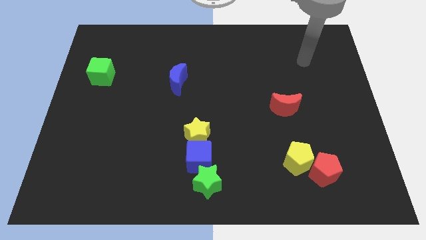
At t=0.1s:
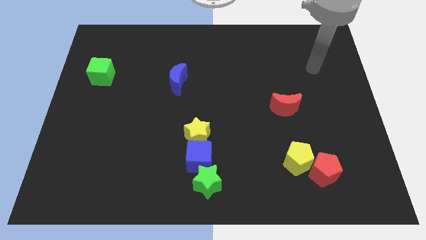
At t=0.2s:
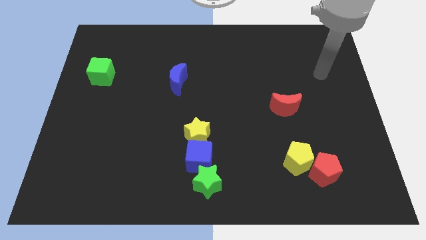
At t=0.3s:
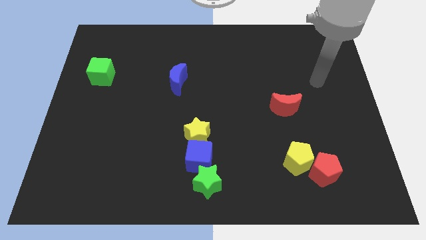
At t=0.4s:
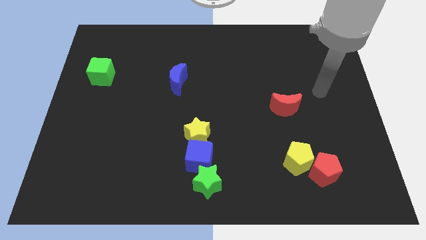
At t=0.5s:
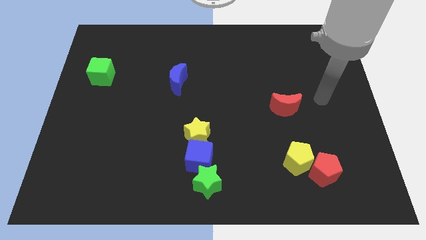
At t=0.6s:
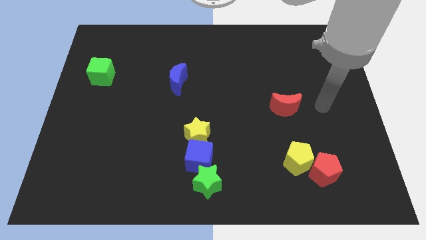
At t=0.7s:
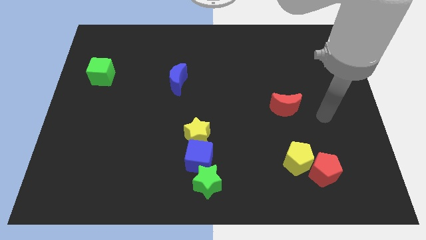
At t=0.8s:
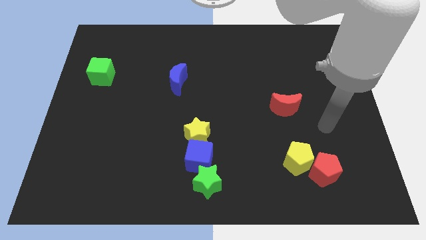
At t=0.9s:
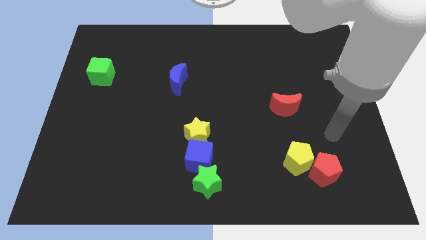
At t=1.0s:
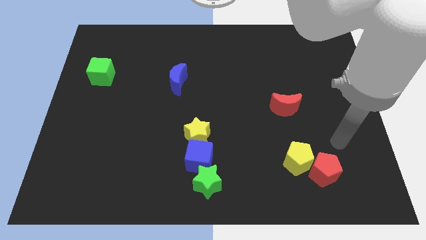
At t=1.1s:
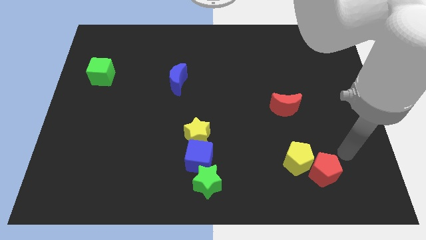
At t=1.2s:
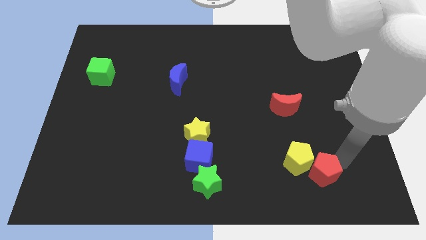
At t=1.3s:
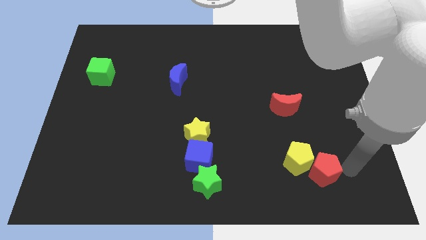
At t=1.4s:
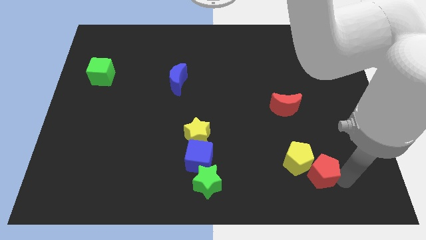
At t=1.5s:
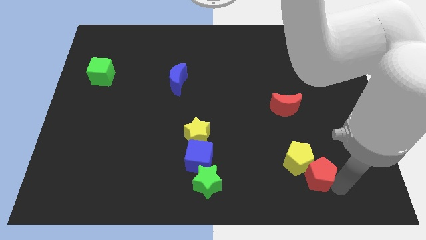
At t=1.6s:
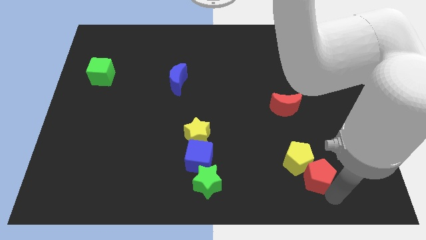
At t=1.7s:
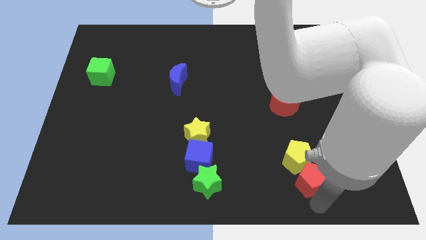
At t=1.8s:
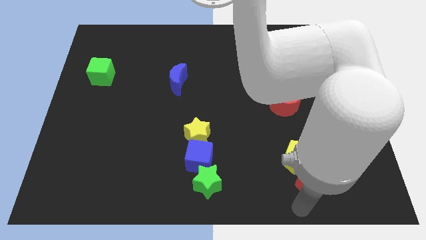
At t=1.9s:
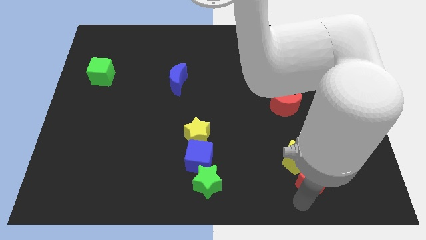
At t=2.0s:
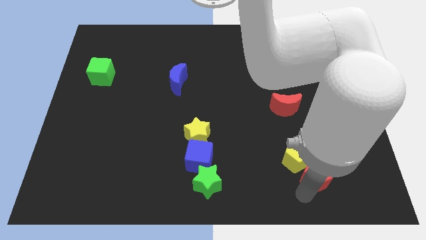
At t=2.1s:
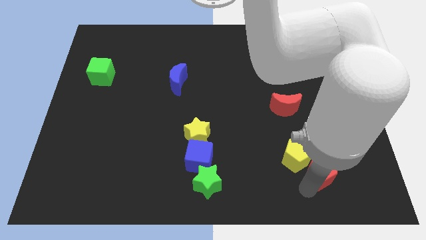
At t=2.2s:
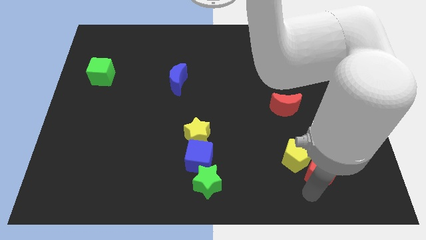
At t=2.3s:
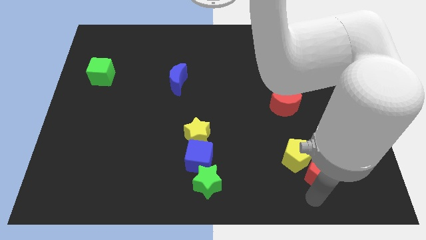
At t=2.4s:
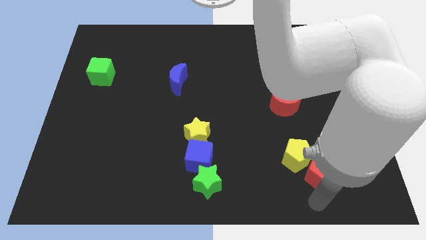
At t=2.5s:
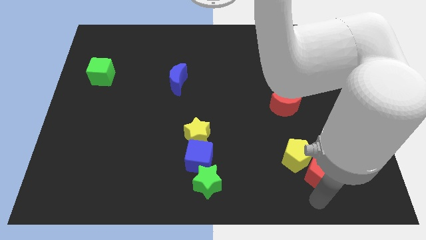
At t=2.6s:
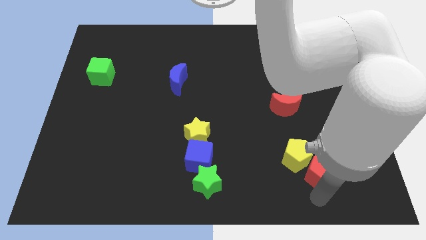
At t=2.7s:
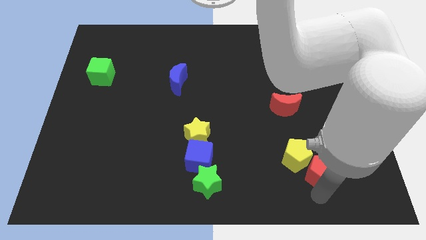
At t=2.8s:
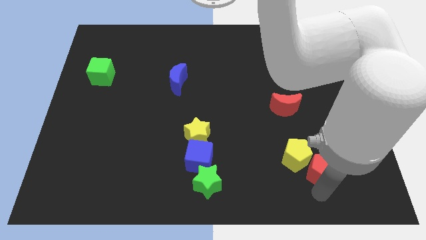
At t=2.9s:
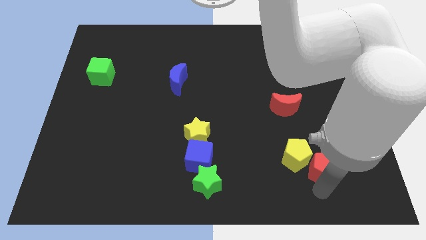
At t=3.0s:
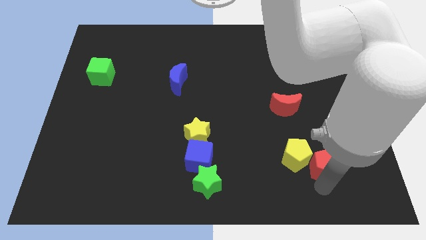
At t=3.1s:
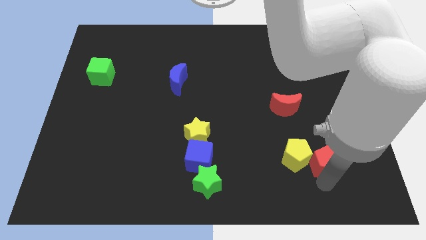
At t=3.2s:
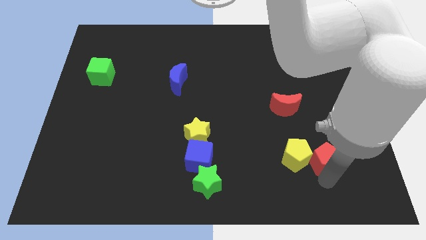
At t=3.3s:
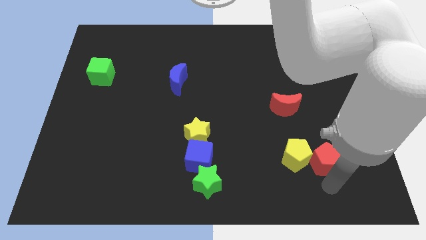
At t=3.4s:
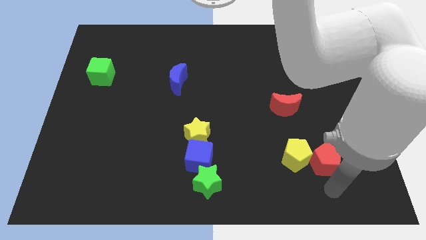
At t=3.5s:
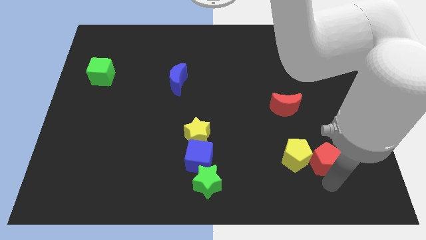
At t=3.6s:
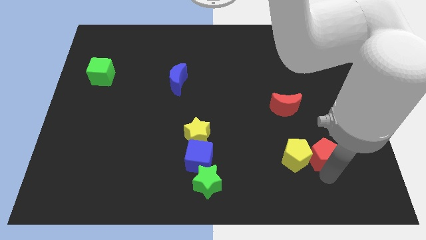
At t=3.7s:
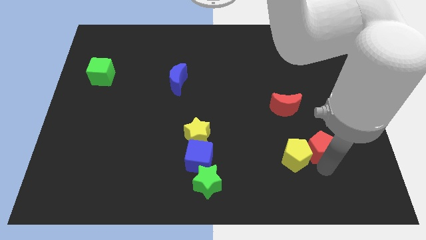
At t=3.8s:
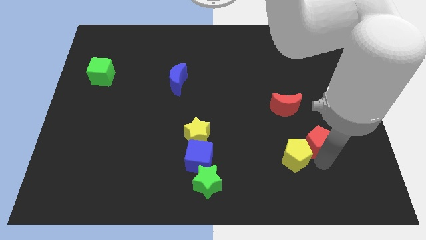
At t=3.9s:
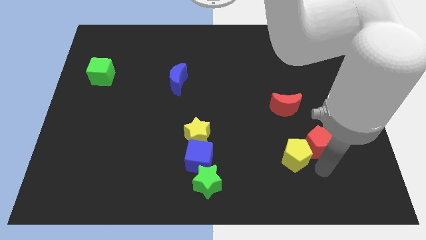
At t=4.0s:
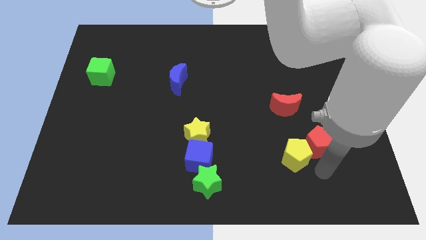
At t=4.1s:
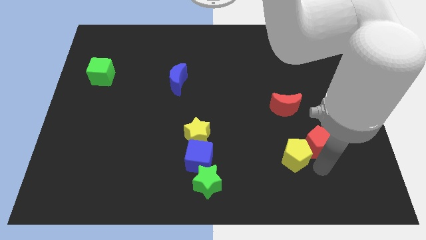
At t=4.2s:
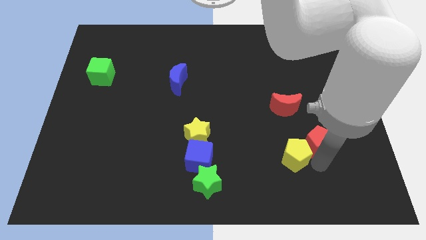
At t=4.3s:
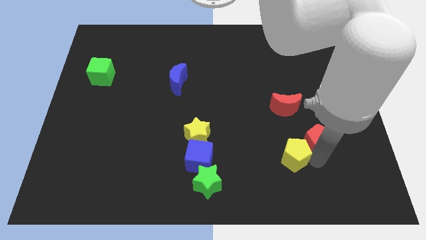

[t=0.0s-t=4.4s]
move the red pentagon a little bit up

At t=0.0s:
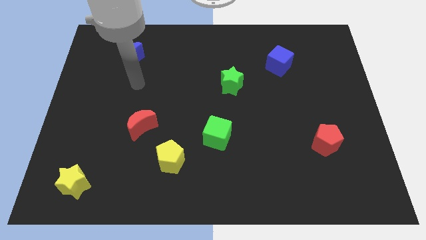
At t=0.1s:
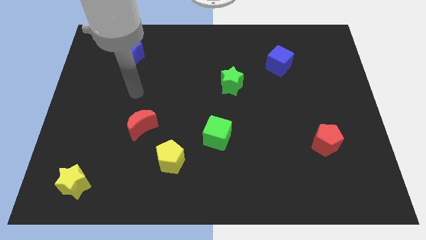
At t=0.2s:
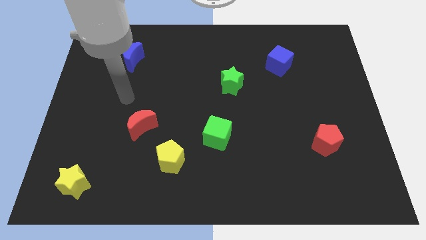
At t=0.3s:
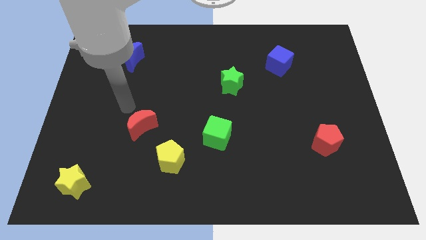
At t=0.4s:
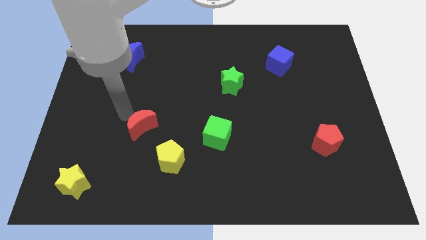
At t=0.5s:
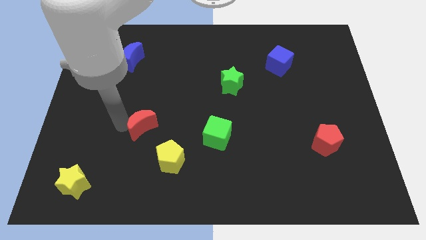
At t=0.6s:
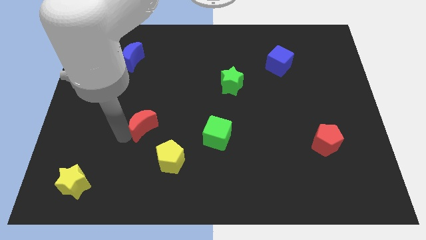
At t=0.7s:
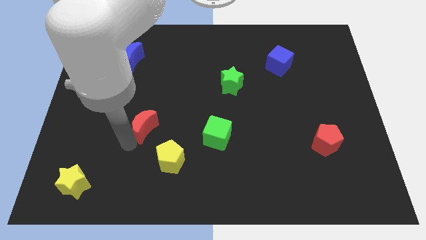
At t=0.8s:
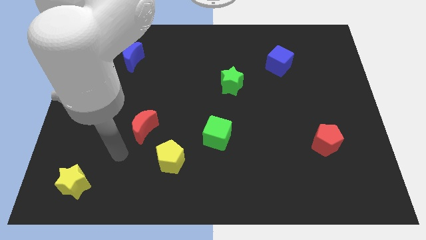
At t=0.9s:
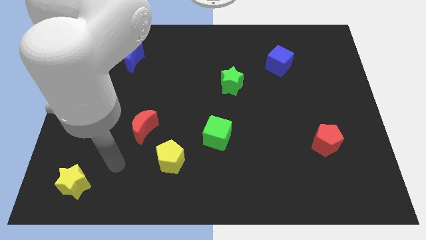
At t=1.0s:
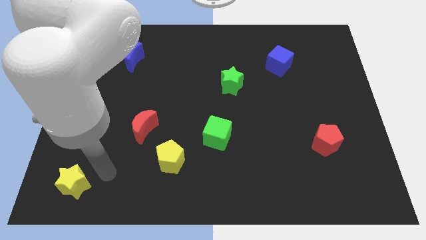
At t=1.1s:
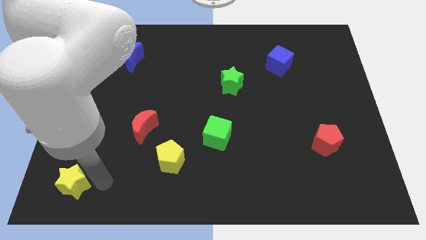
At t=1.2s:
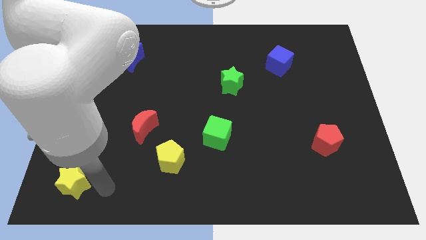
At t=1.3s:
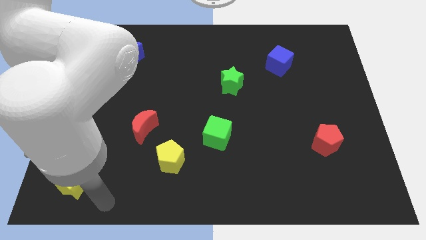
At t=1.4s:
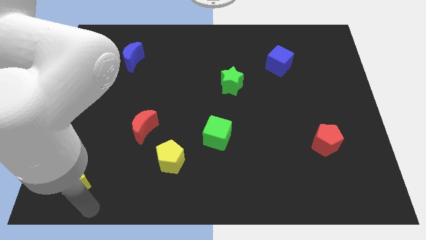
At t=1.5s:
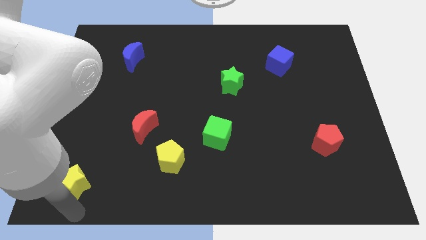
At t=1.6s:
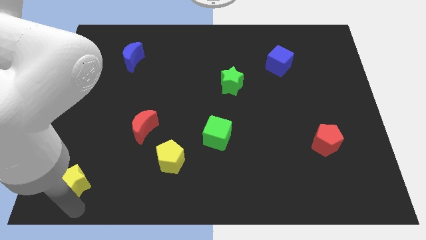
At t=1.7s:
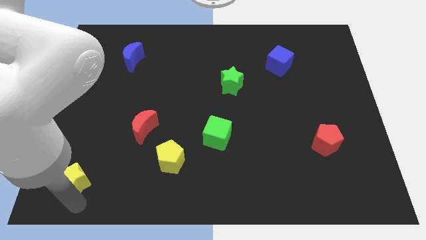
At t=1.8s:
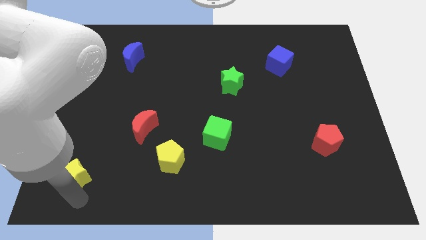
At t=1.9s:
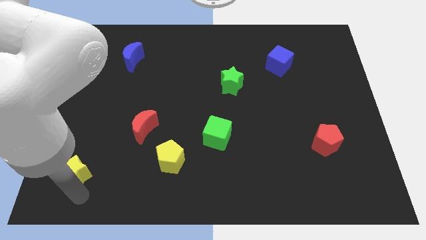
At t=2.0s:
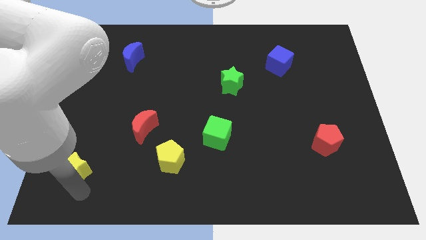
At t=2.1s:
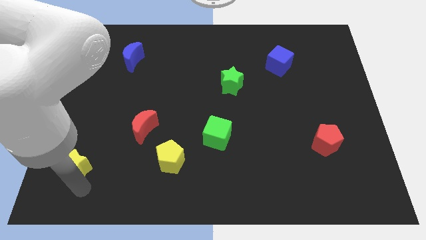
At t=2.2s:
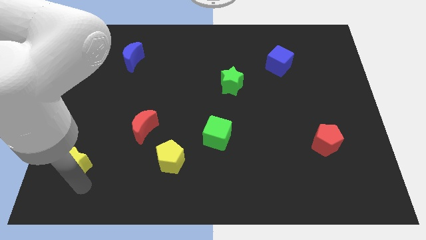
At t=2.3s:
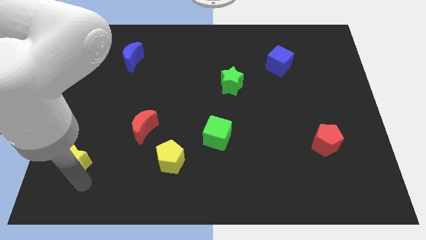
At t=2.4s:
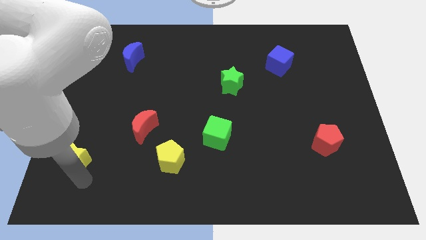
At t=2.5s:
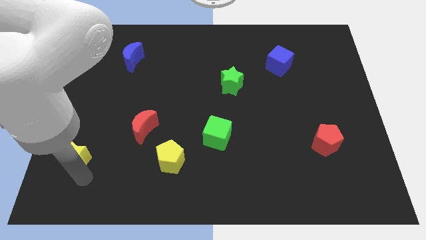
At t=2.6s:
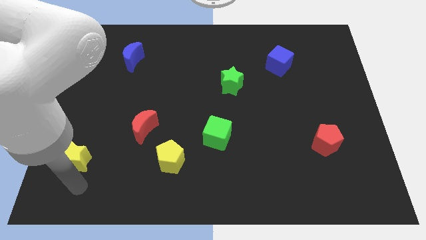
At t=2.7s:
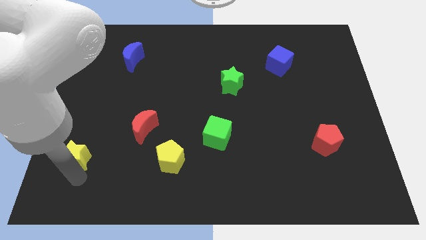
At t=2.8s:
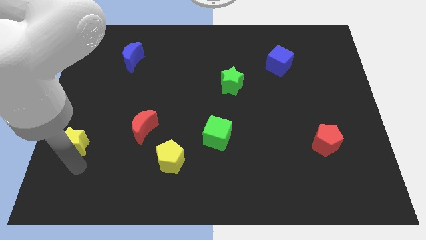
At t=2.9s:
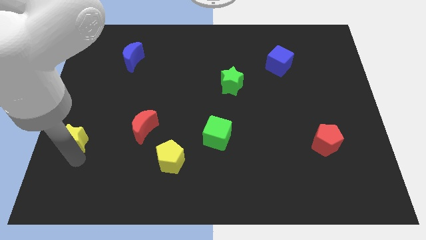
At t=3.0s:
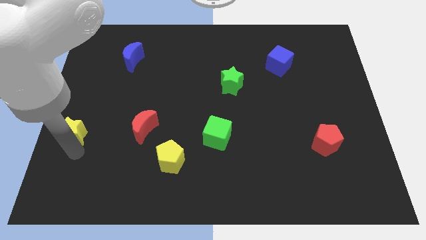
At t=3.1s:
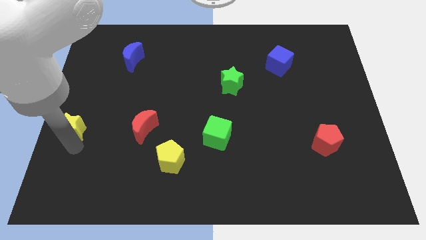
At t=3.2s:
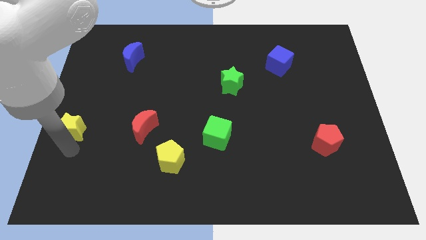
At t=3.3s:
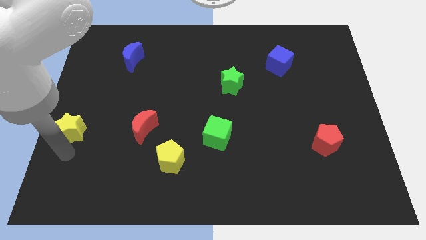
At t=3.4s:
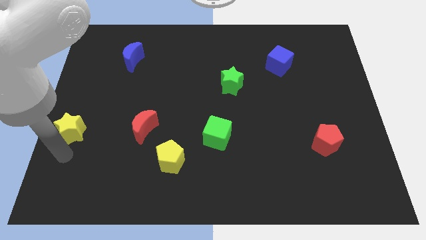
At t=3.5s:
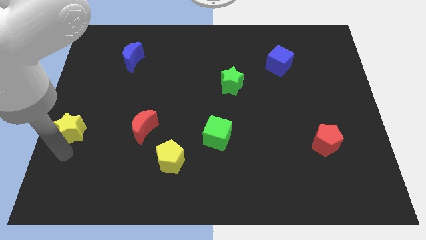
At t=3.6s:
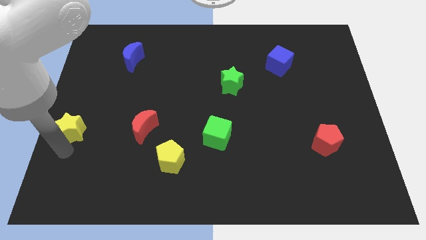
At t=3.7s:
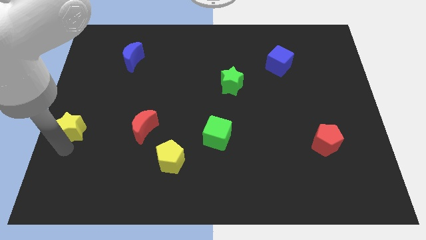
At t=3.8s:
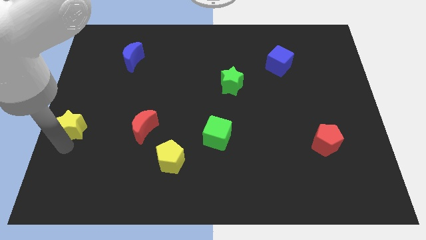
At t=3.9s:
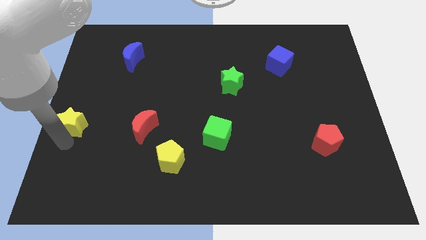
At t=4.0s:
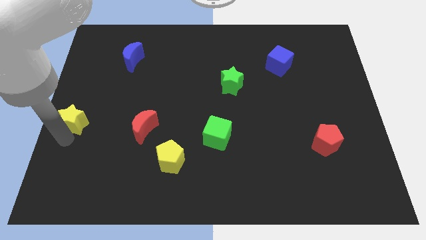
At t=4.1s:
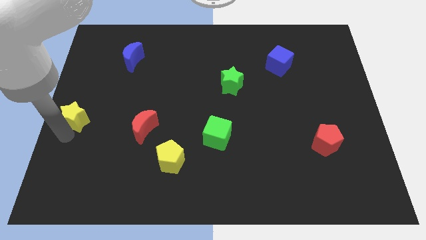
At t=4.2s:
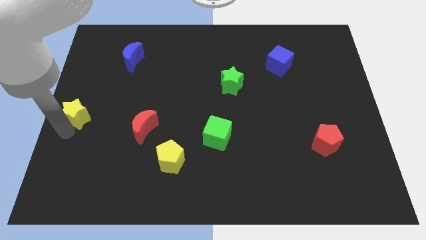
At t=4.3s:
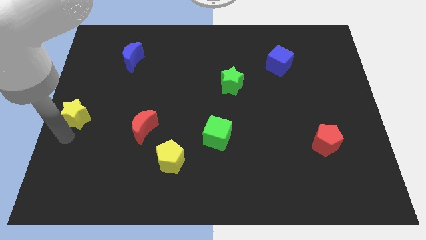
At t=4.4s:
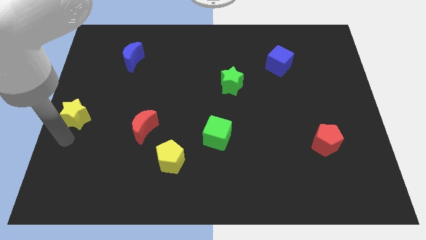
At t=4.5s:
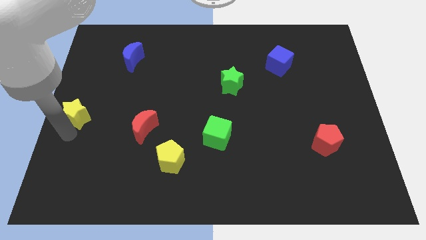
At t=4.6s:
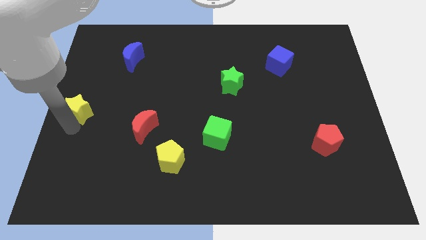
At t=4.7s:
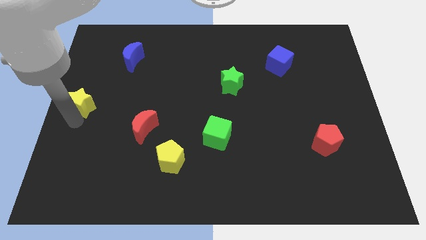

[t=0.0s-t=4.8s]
push the yellow star upwards
